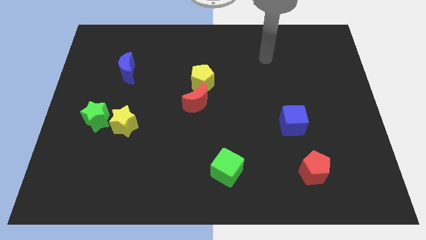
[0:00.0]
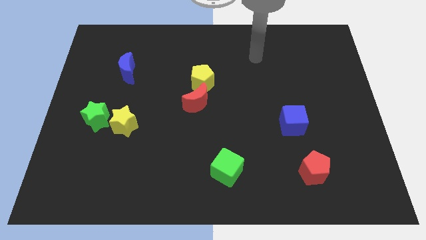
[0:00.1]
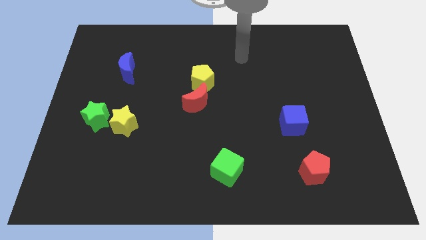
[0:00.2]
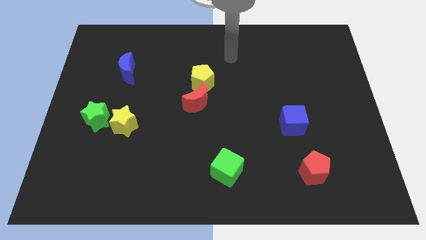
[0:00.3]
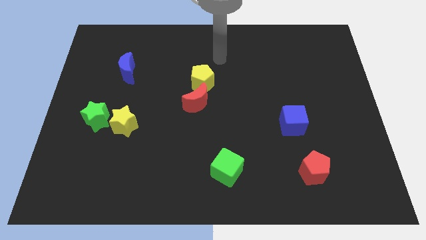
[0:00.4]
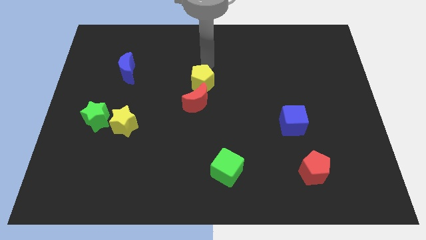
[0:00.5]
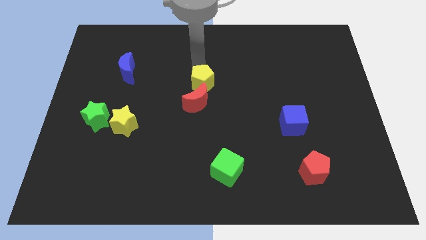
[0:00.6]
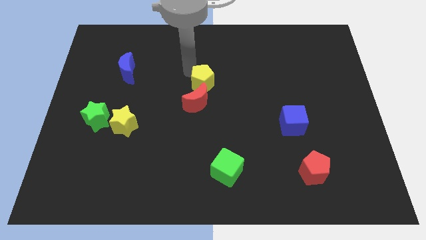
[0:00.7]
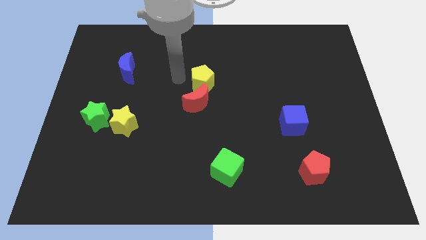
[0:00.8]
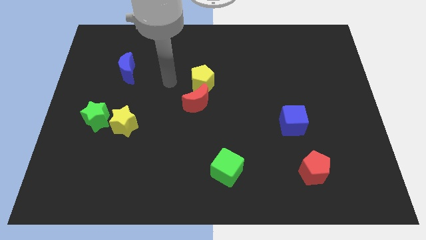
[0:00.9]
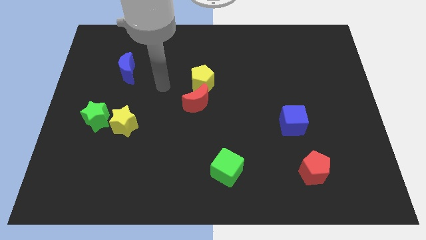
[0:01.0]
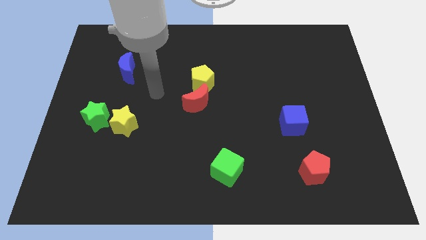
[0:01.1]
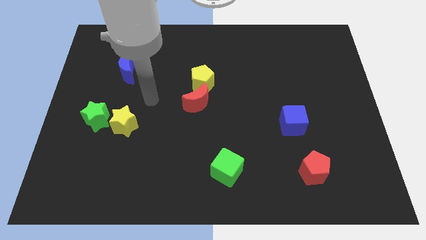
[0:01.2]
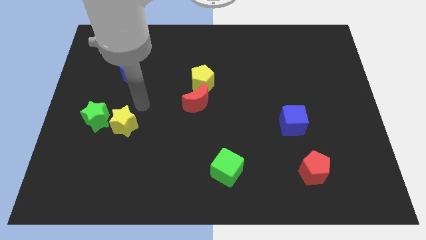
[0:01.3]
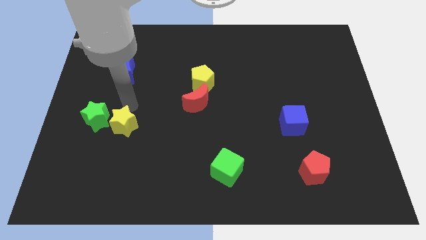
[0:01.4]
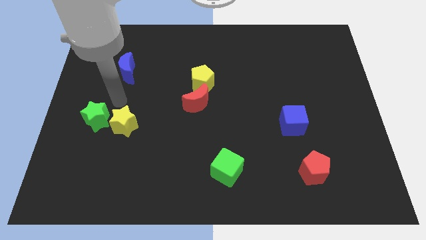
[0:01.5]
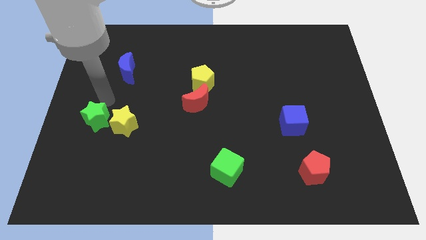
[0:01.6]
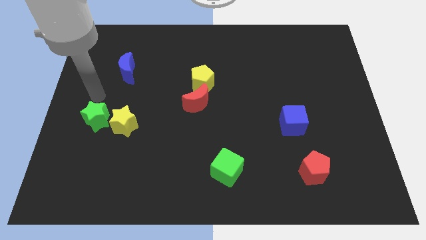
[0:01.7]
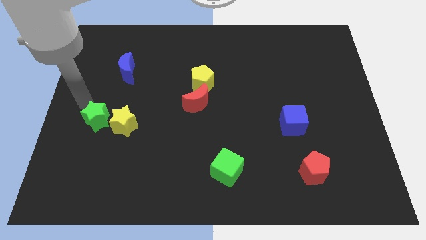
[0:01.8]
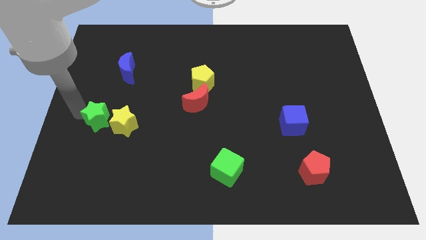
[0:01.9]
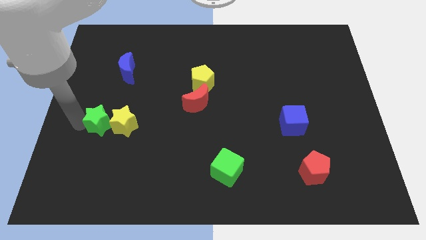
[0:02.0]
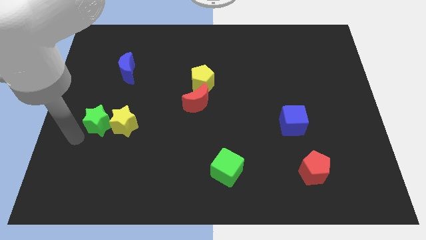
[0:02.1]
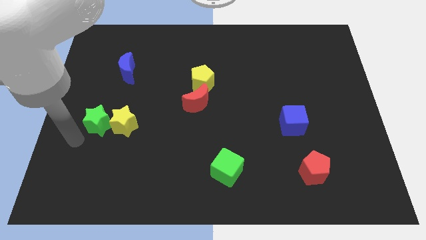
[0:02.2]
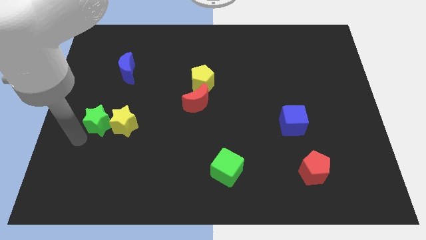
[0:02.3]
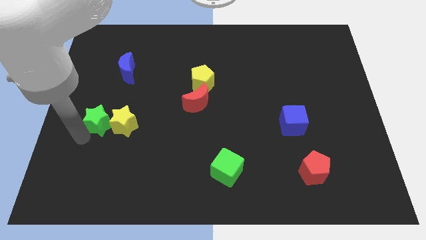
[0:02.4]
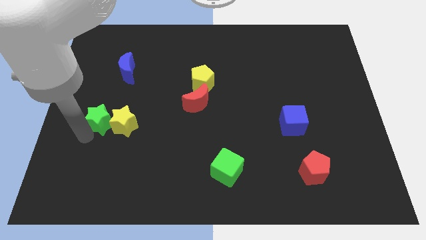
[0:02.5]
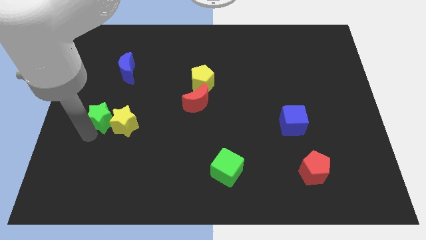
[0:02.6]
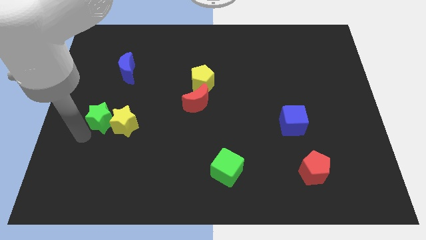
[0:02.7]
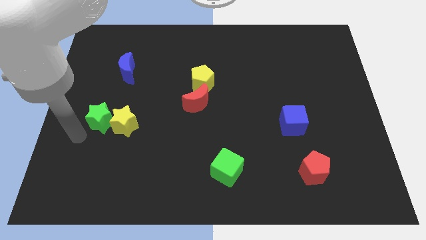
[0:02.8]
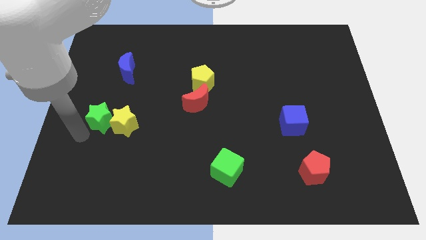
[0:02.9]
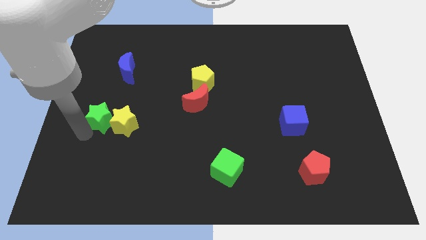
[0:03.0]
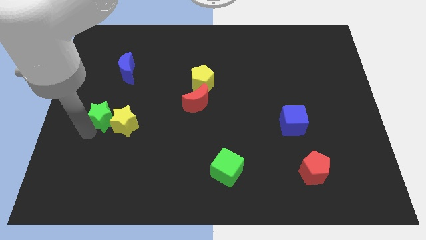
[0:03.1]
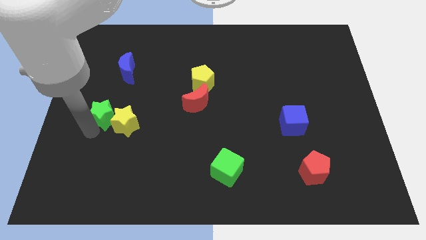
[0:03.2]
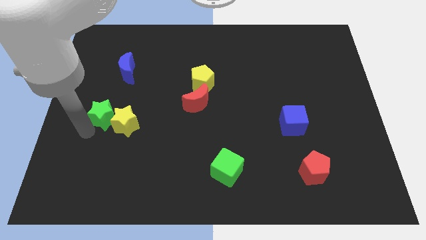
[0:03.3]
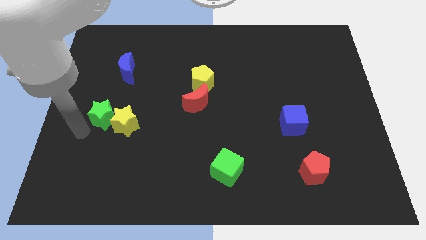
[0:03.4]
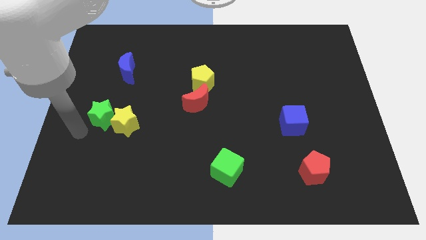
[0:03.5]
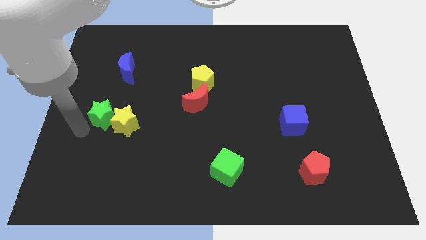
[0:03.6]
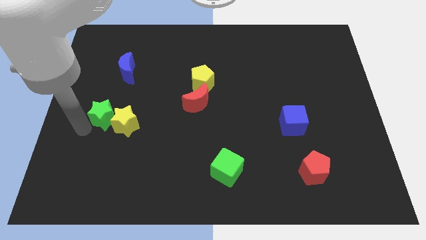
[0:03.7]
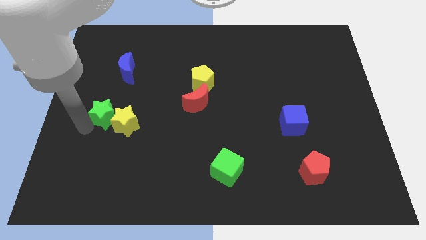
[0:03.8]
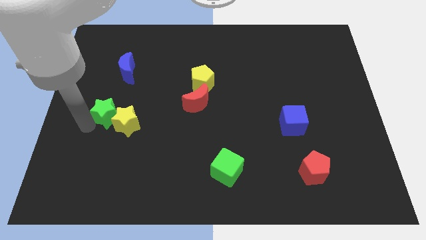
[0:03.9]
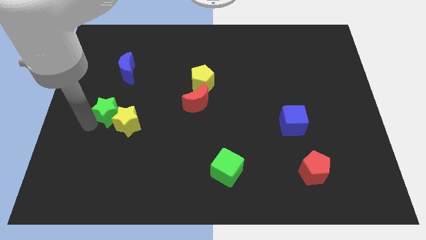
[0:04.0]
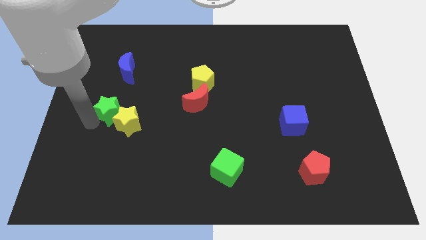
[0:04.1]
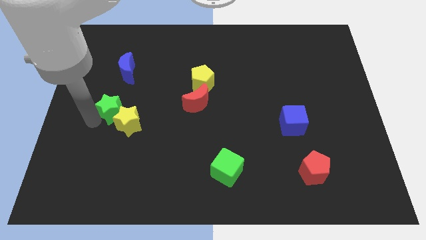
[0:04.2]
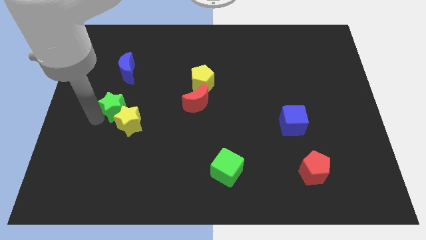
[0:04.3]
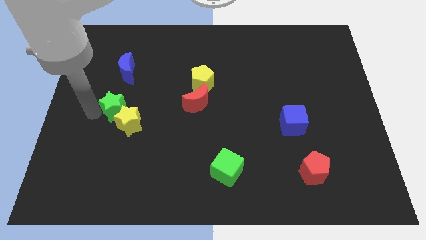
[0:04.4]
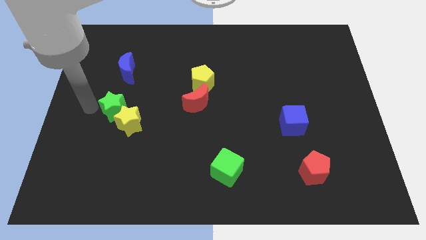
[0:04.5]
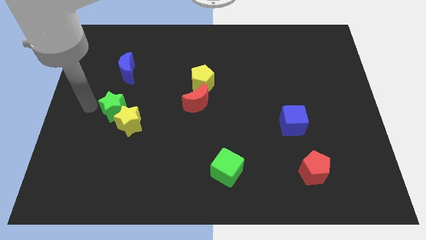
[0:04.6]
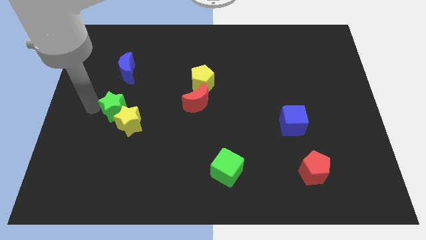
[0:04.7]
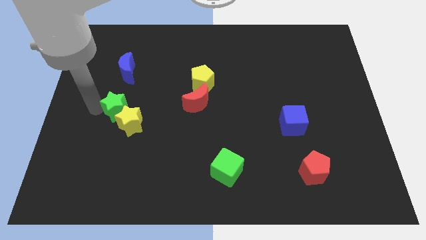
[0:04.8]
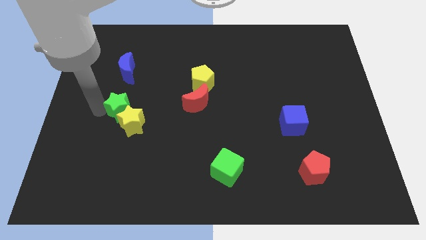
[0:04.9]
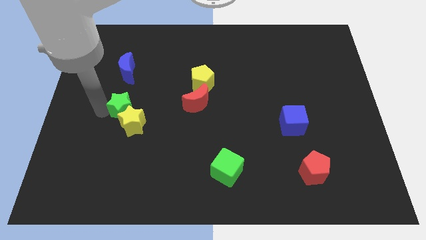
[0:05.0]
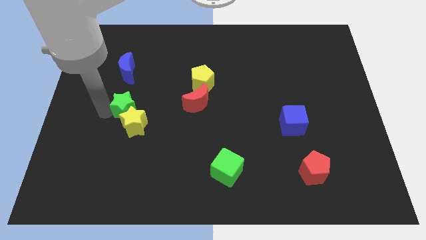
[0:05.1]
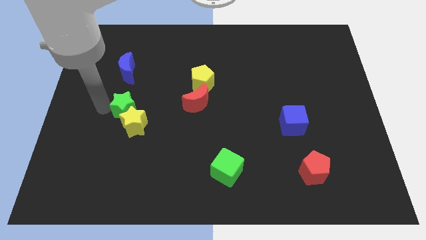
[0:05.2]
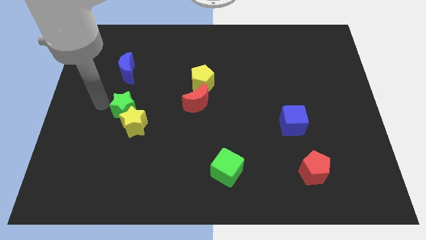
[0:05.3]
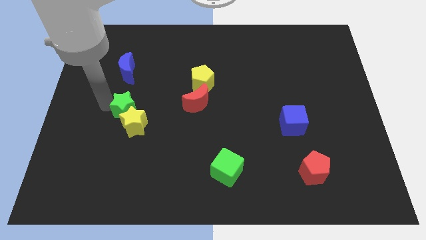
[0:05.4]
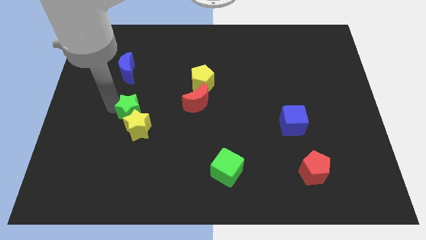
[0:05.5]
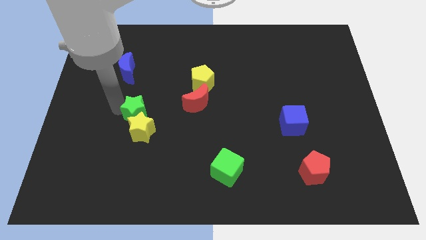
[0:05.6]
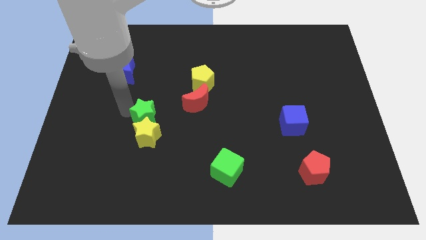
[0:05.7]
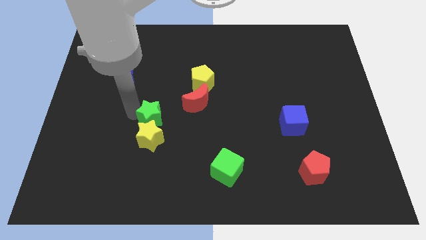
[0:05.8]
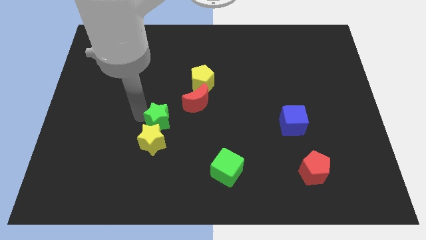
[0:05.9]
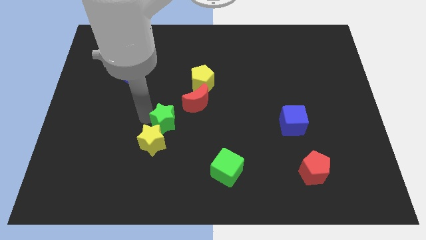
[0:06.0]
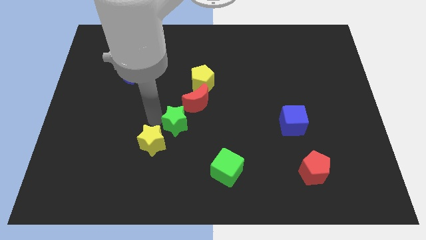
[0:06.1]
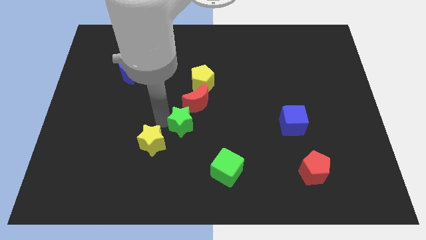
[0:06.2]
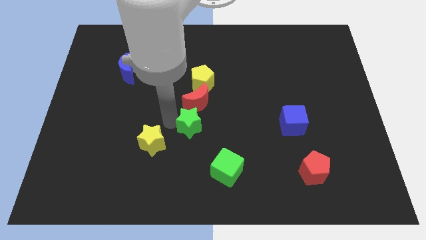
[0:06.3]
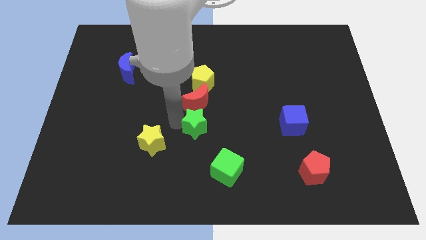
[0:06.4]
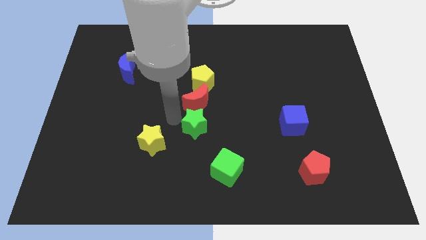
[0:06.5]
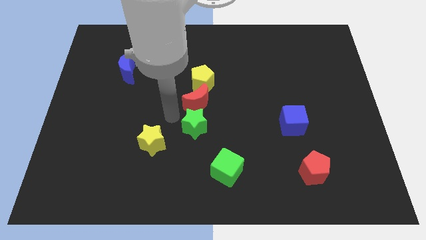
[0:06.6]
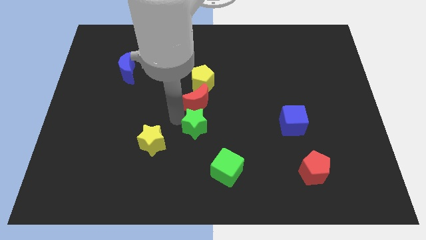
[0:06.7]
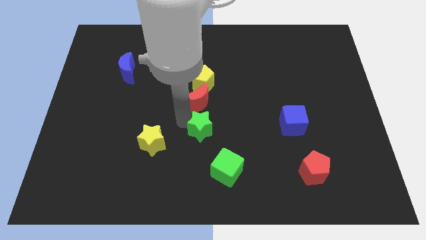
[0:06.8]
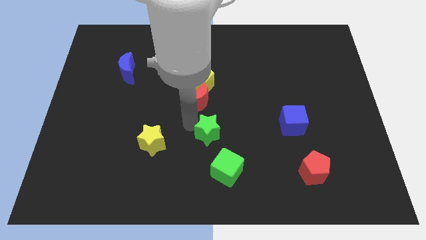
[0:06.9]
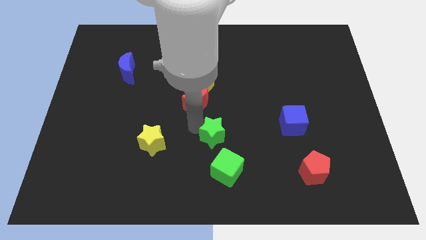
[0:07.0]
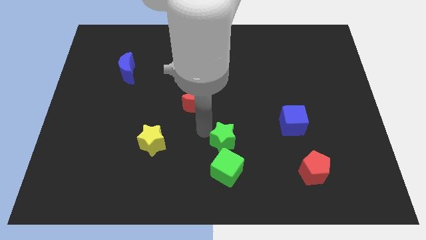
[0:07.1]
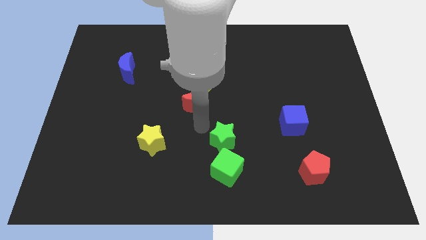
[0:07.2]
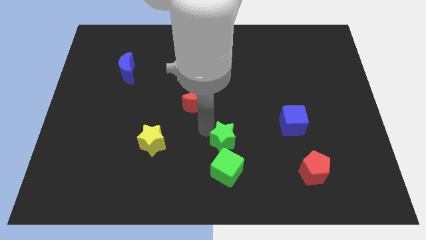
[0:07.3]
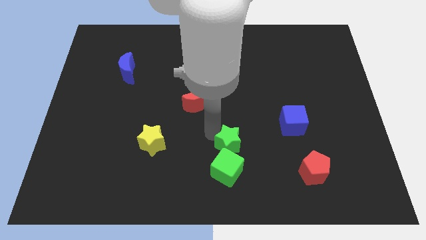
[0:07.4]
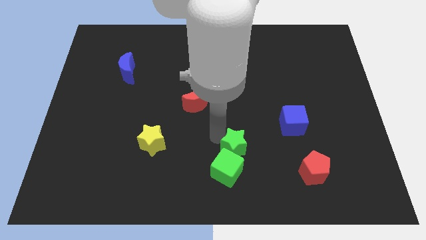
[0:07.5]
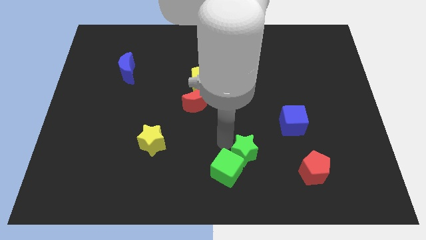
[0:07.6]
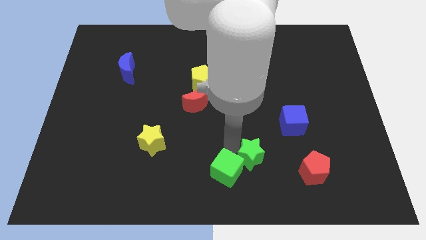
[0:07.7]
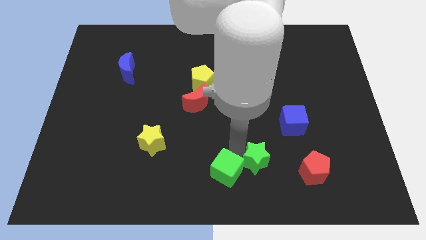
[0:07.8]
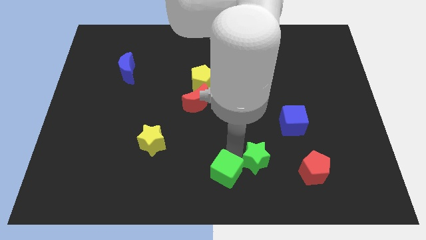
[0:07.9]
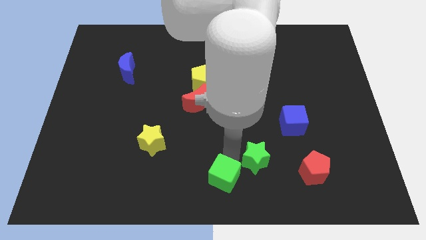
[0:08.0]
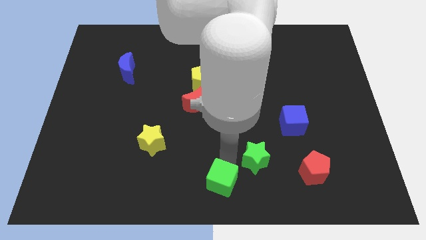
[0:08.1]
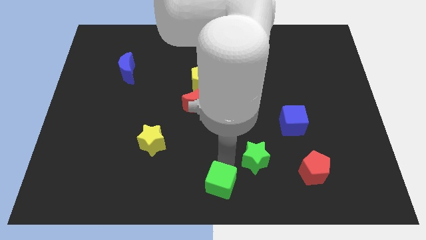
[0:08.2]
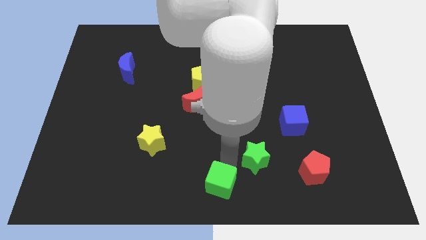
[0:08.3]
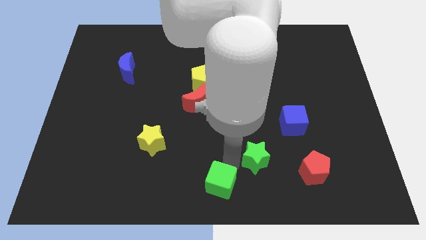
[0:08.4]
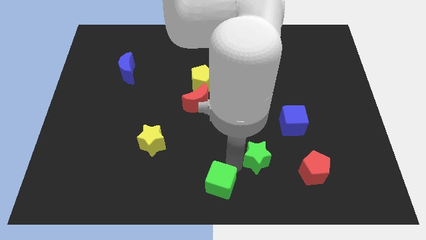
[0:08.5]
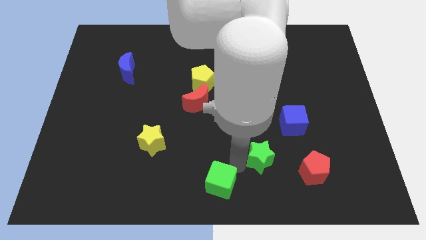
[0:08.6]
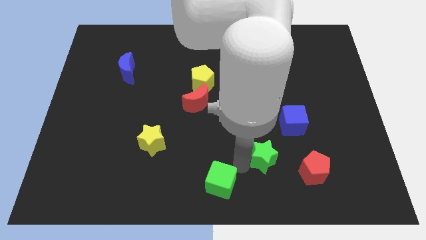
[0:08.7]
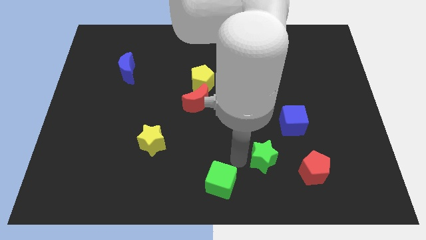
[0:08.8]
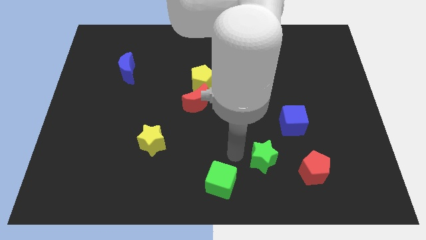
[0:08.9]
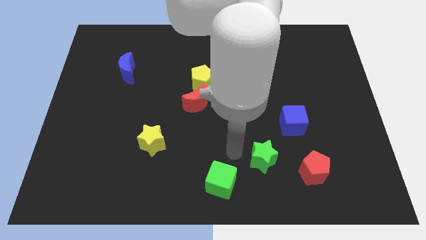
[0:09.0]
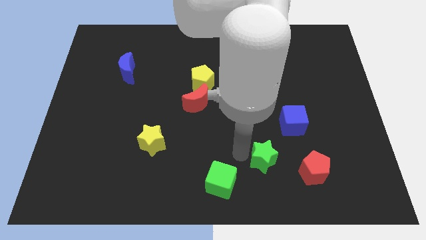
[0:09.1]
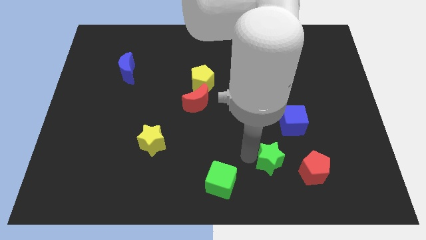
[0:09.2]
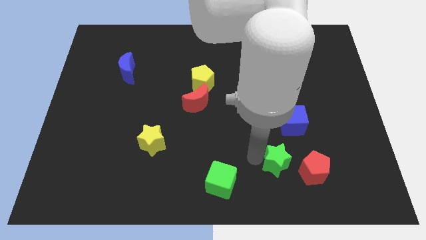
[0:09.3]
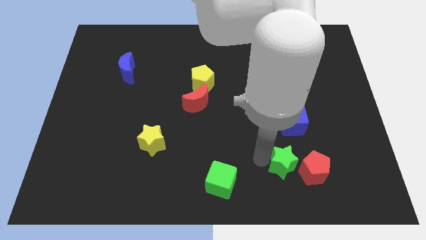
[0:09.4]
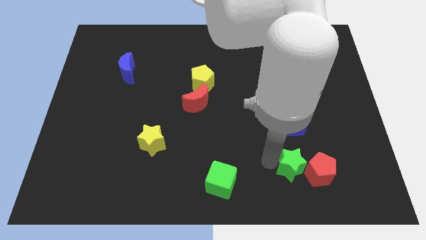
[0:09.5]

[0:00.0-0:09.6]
push the green star close to the red pentagon
